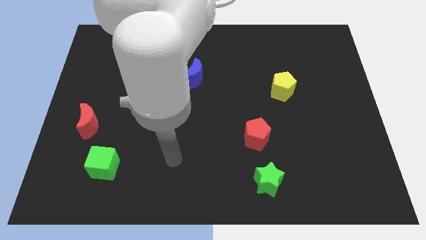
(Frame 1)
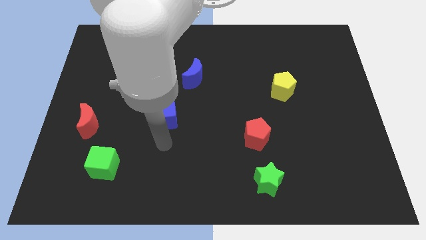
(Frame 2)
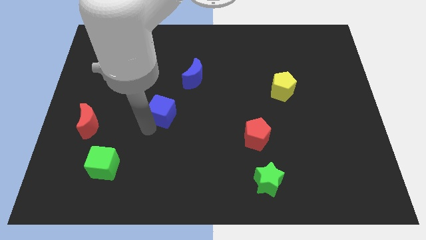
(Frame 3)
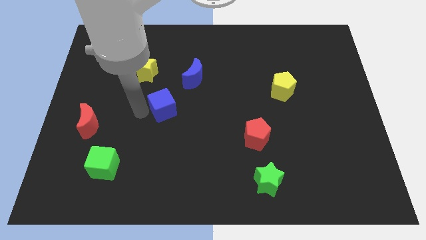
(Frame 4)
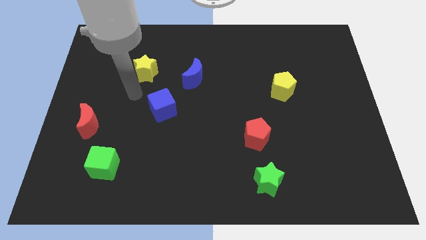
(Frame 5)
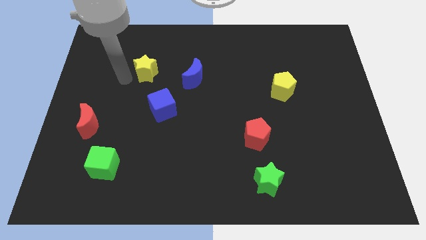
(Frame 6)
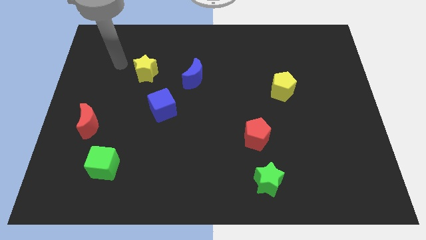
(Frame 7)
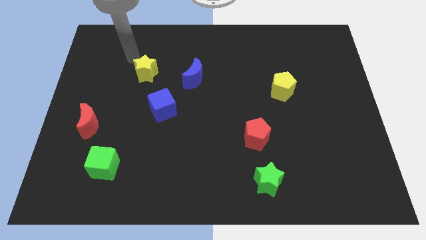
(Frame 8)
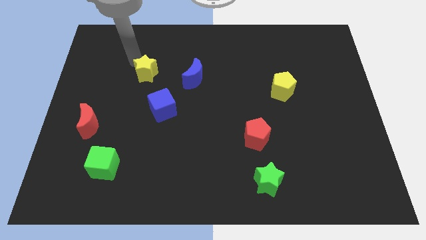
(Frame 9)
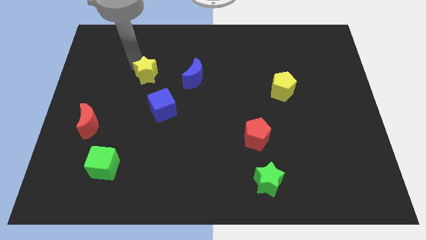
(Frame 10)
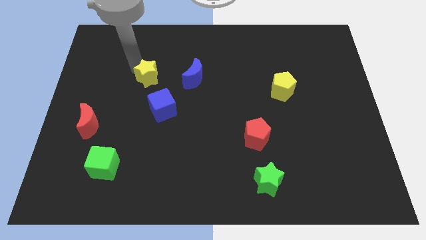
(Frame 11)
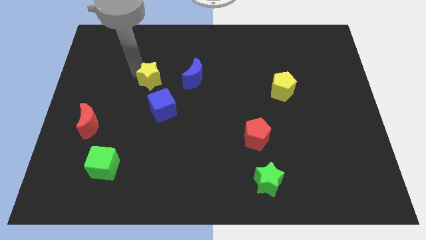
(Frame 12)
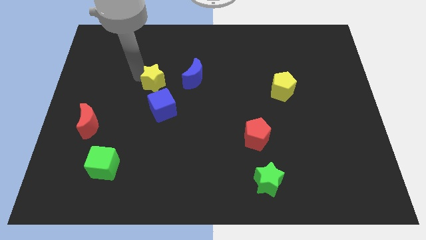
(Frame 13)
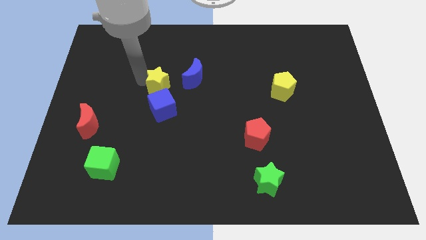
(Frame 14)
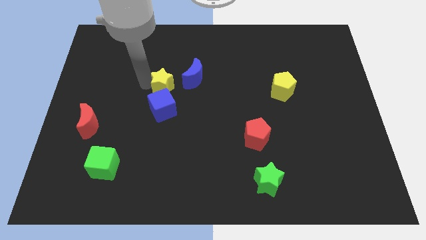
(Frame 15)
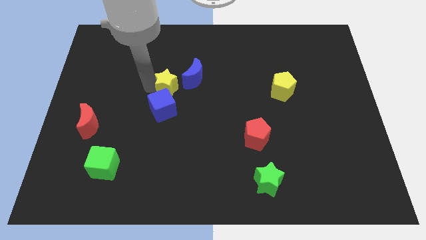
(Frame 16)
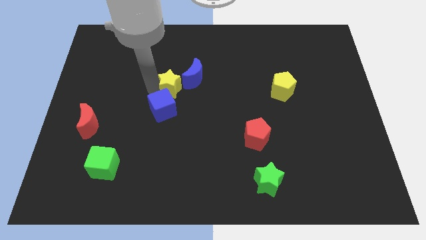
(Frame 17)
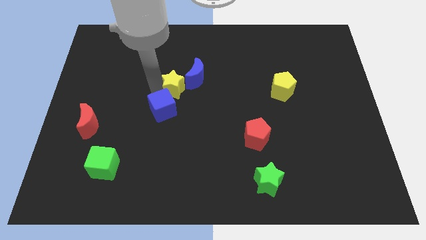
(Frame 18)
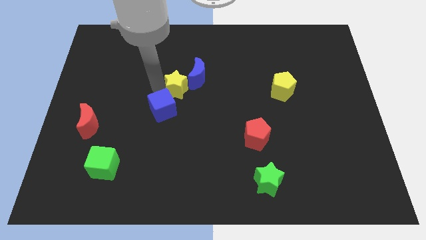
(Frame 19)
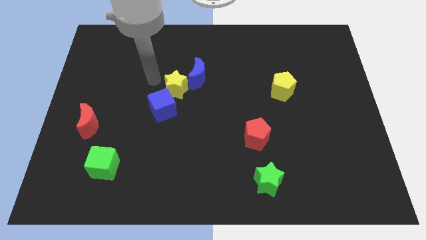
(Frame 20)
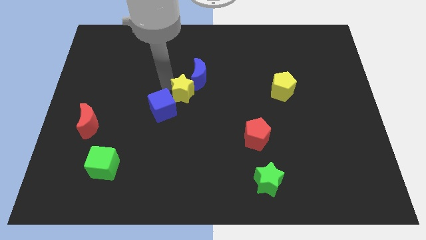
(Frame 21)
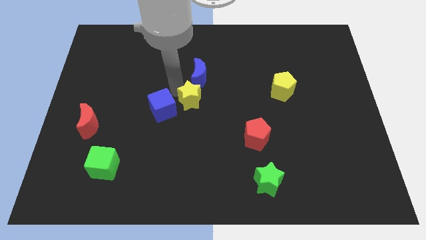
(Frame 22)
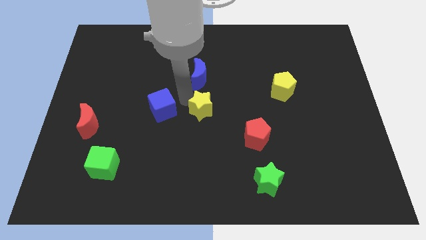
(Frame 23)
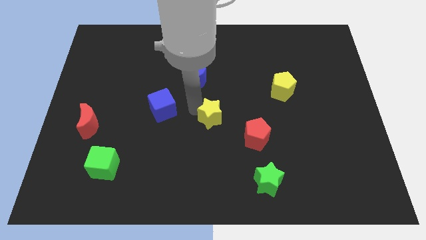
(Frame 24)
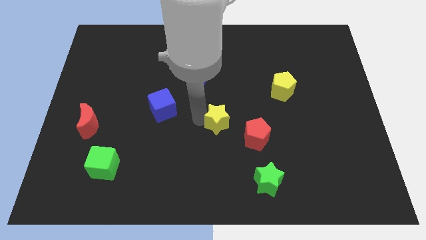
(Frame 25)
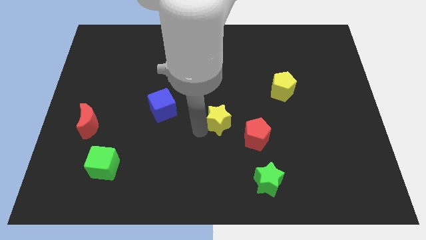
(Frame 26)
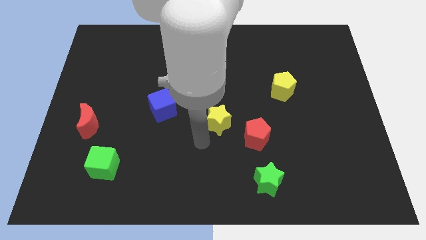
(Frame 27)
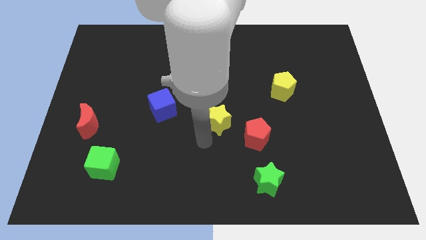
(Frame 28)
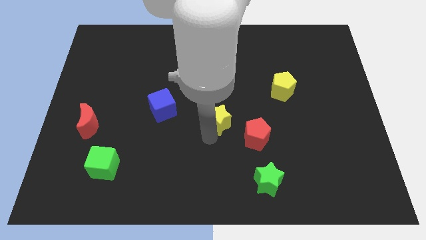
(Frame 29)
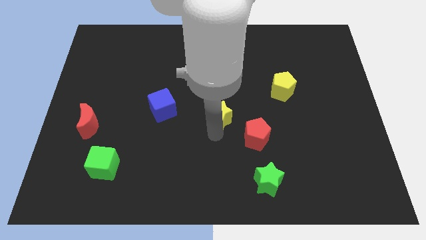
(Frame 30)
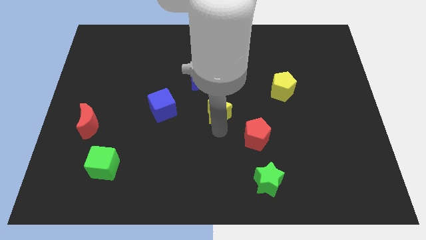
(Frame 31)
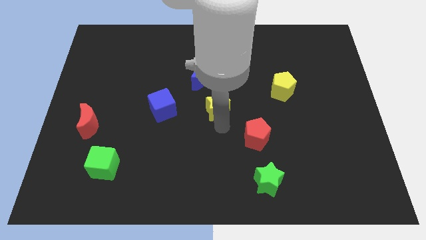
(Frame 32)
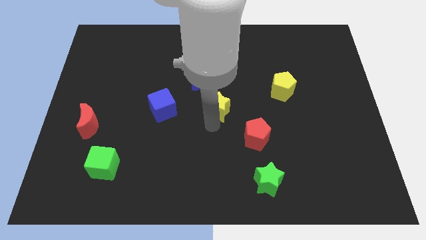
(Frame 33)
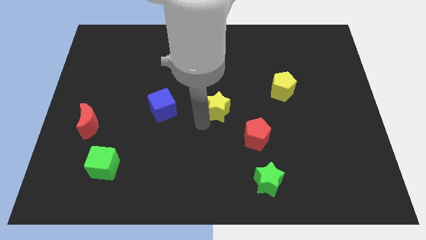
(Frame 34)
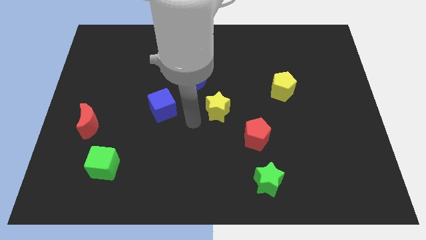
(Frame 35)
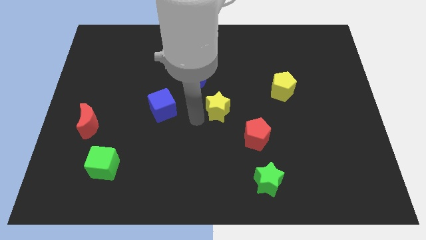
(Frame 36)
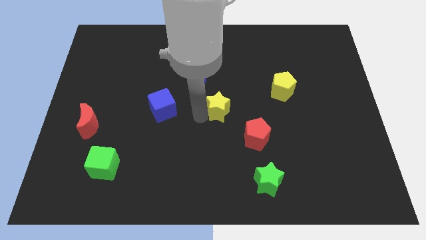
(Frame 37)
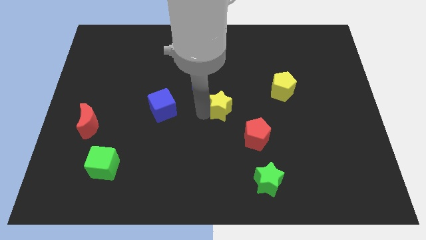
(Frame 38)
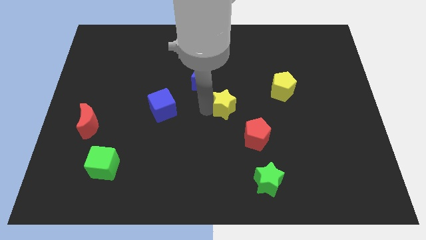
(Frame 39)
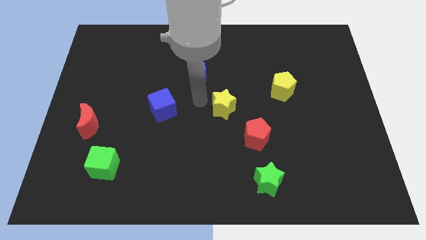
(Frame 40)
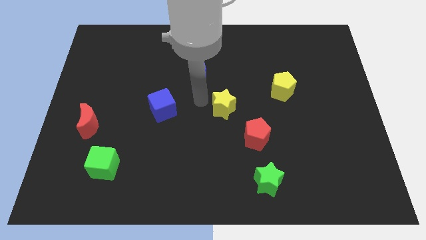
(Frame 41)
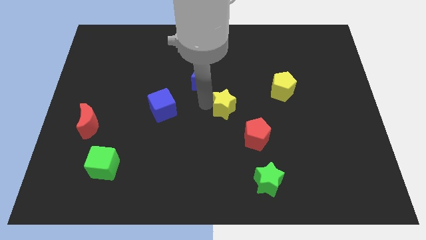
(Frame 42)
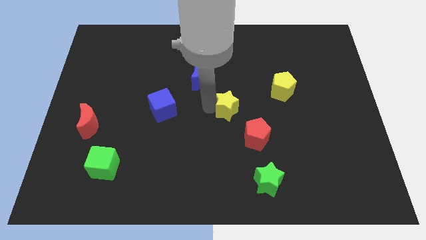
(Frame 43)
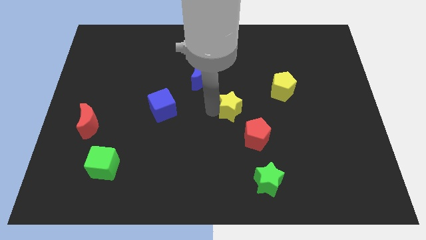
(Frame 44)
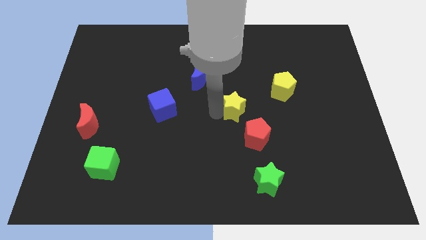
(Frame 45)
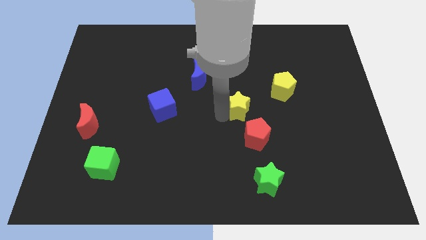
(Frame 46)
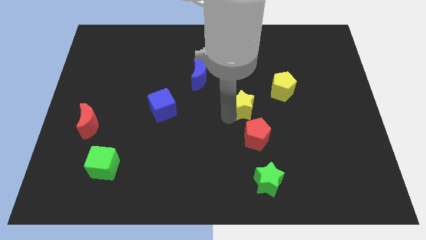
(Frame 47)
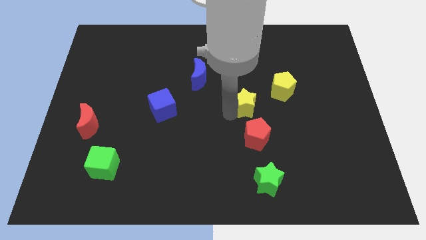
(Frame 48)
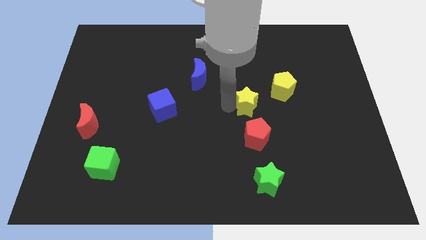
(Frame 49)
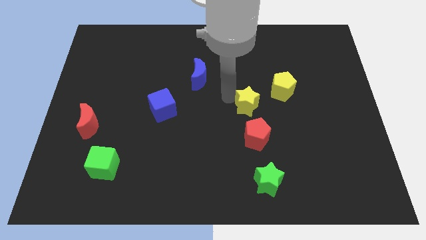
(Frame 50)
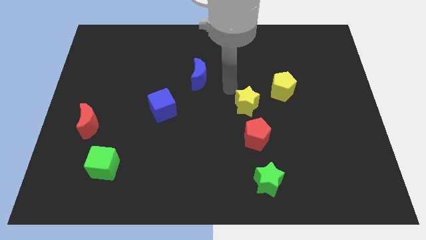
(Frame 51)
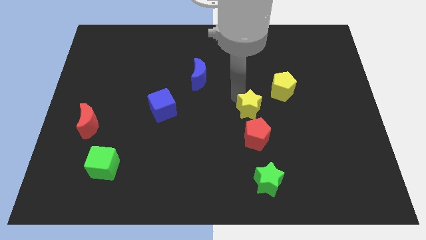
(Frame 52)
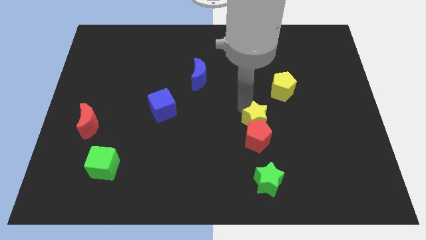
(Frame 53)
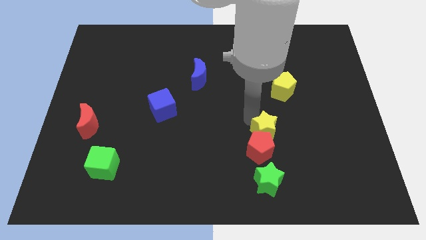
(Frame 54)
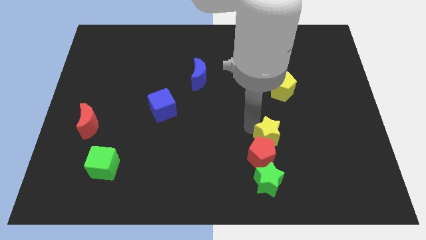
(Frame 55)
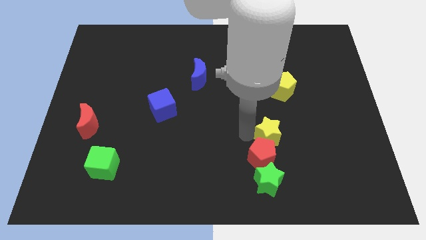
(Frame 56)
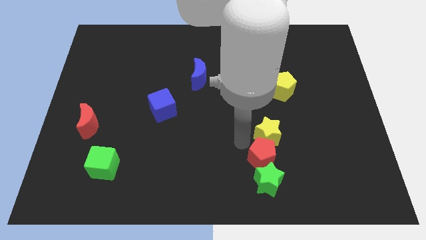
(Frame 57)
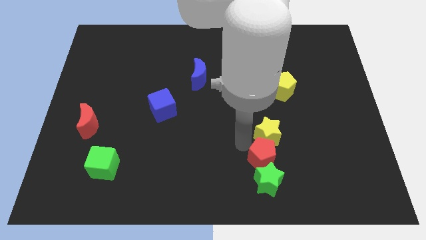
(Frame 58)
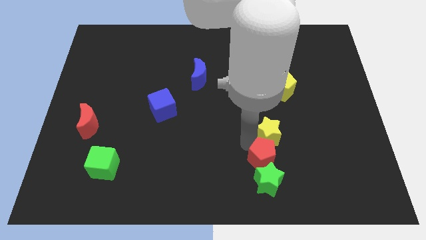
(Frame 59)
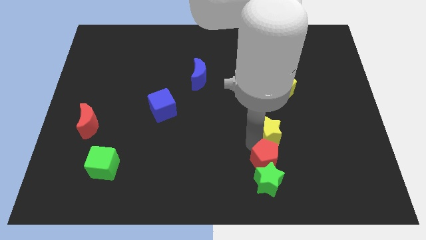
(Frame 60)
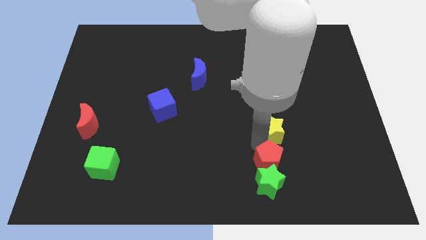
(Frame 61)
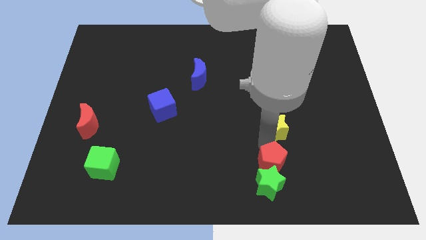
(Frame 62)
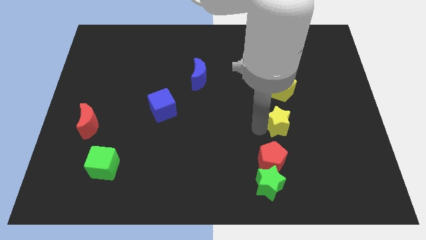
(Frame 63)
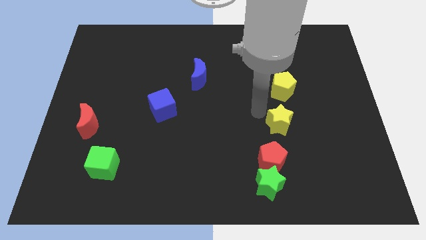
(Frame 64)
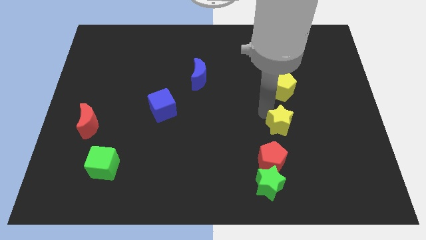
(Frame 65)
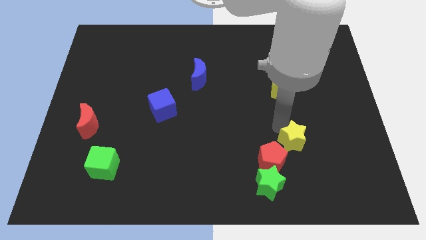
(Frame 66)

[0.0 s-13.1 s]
slide the yellow star right of the red pentagon

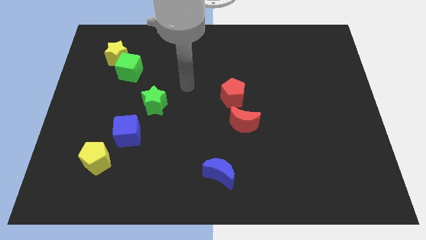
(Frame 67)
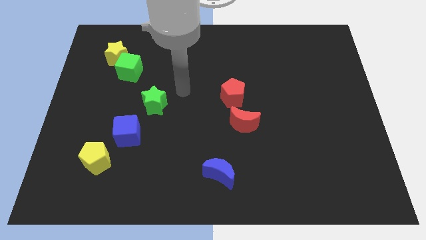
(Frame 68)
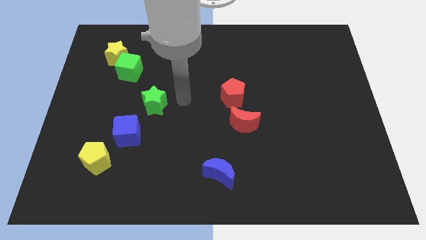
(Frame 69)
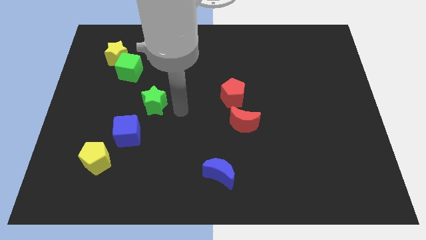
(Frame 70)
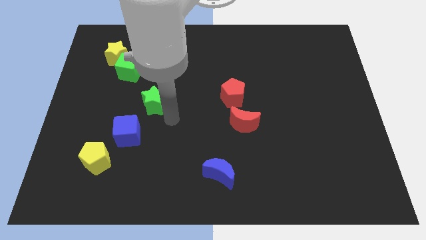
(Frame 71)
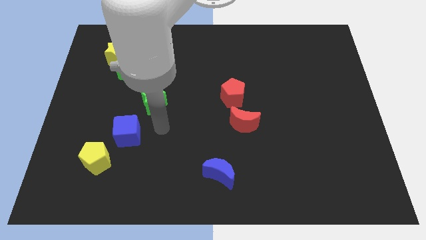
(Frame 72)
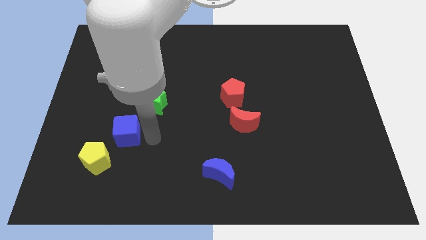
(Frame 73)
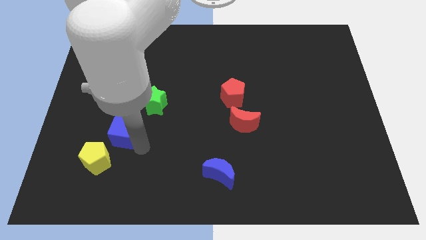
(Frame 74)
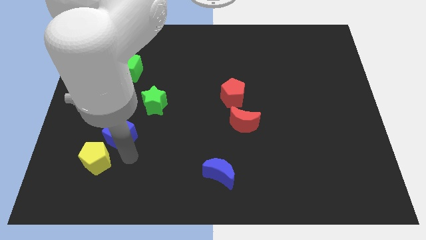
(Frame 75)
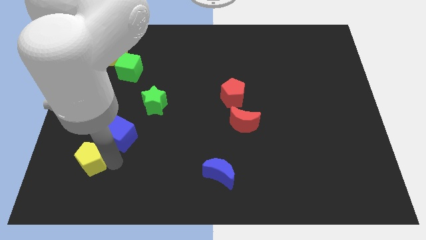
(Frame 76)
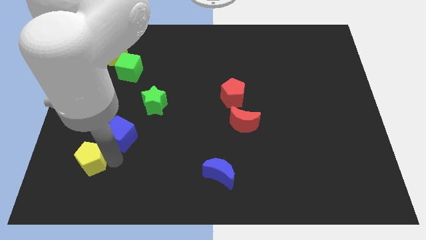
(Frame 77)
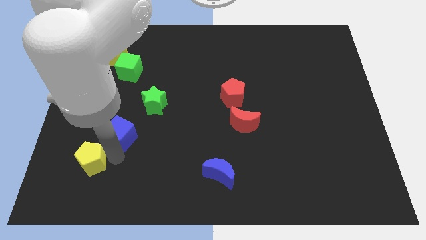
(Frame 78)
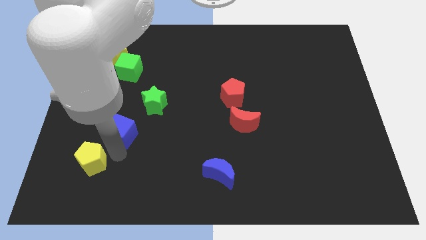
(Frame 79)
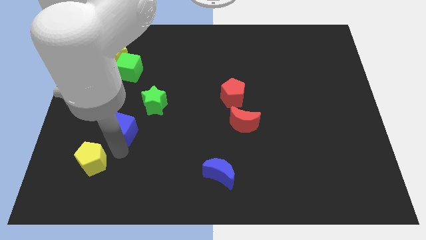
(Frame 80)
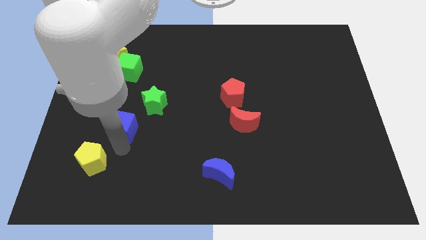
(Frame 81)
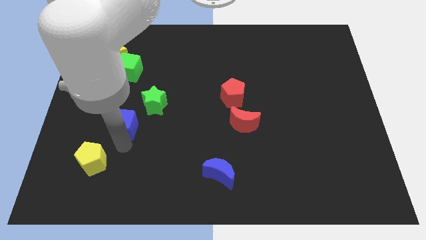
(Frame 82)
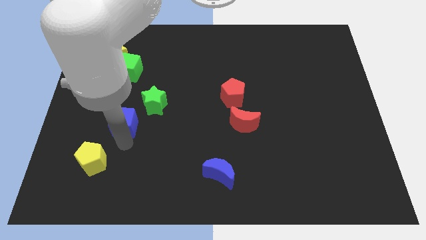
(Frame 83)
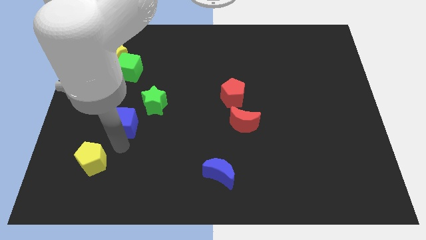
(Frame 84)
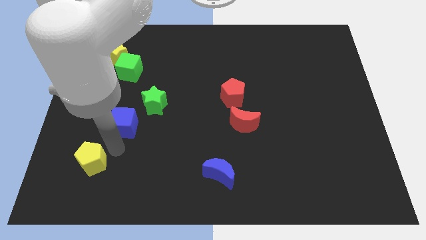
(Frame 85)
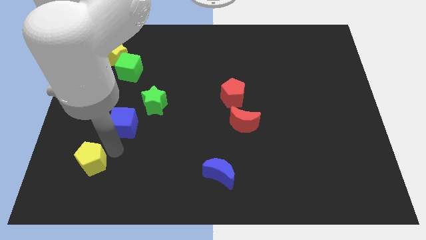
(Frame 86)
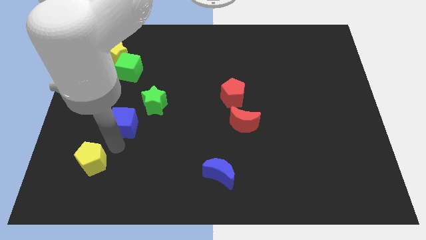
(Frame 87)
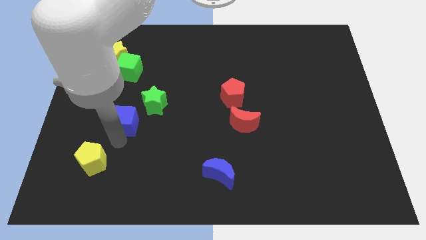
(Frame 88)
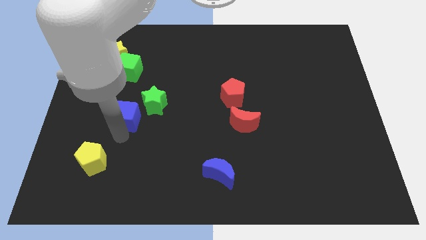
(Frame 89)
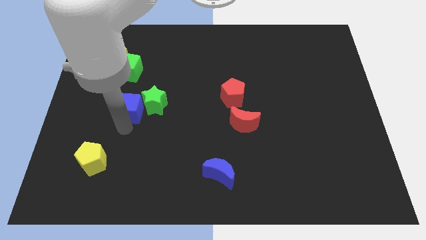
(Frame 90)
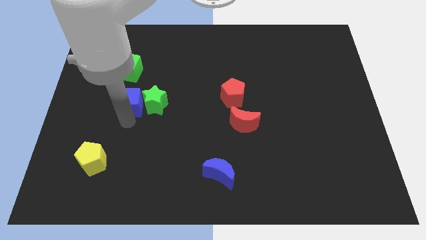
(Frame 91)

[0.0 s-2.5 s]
slide the blue cube to the top left side of the green star
